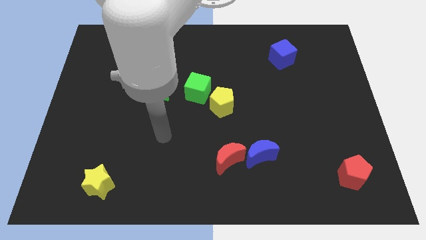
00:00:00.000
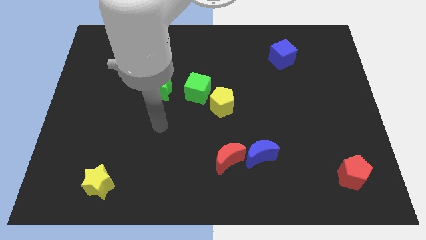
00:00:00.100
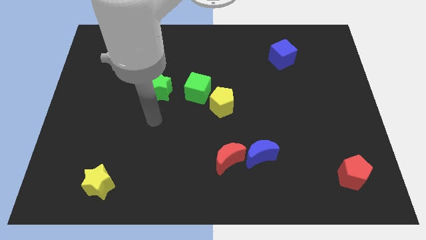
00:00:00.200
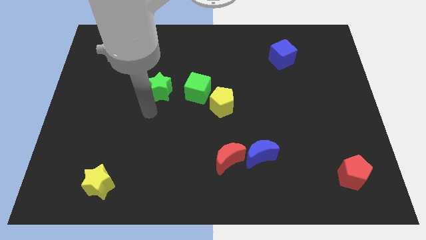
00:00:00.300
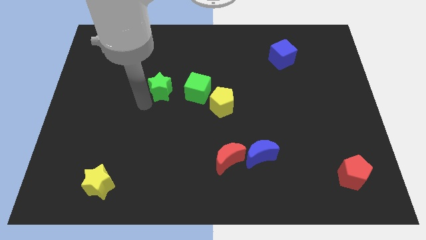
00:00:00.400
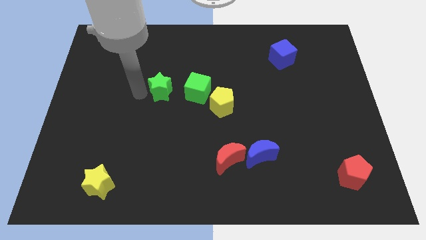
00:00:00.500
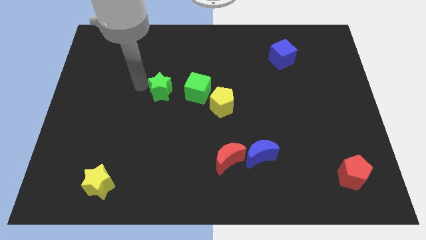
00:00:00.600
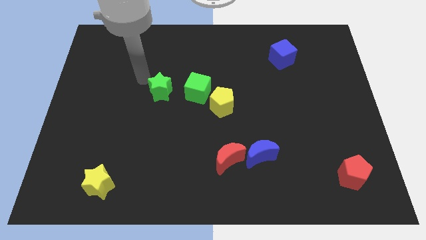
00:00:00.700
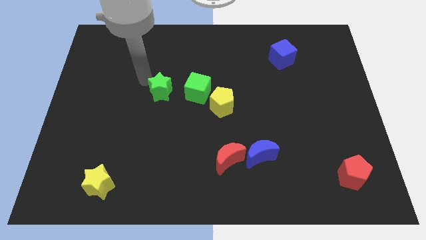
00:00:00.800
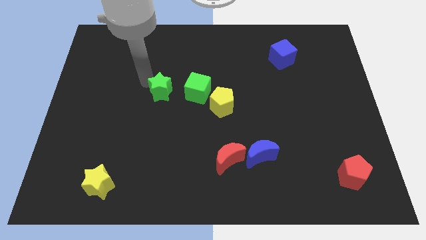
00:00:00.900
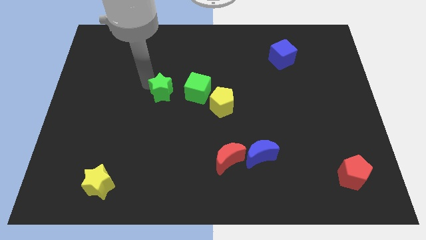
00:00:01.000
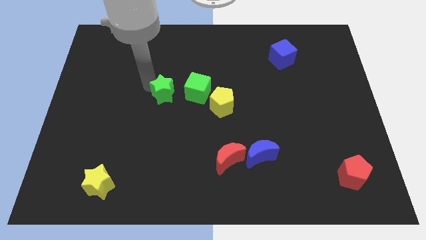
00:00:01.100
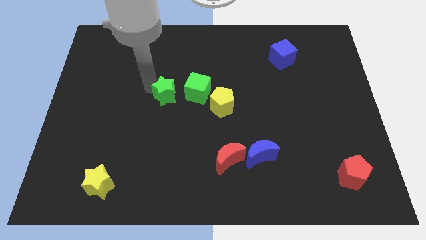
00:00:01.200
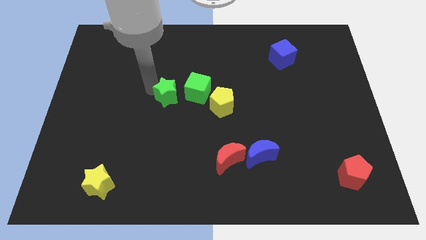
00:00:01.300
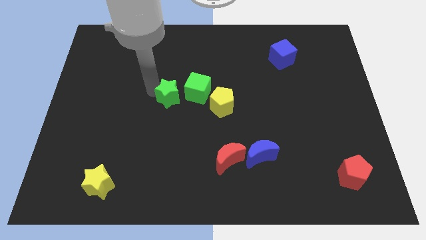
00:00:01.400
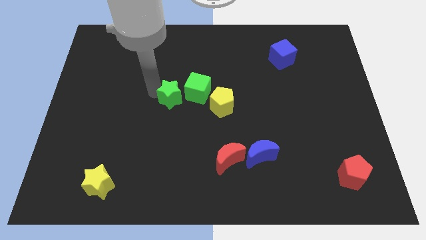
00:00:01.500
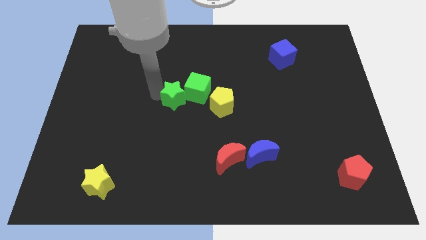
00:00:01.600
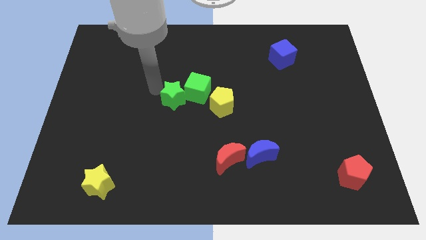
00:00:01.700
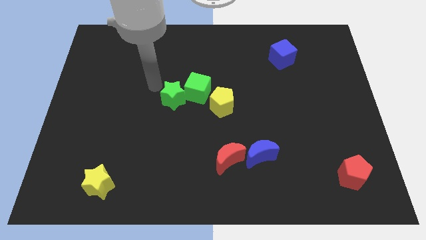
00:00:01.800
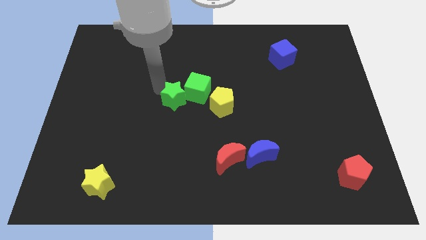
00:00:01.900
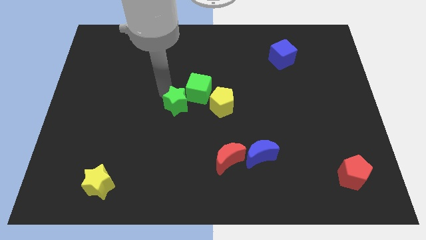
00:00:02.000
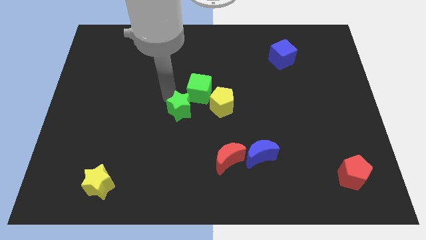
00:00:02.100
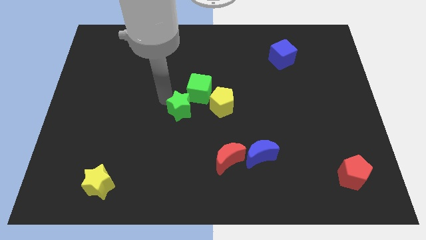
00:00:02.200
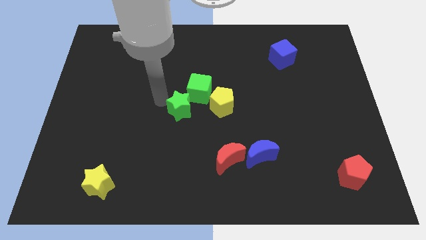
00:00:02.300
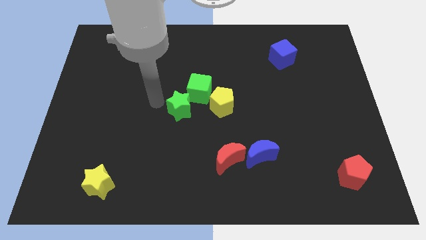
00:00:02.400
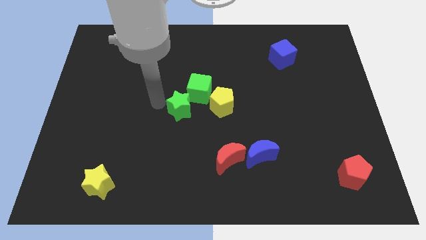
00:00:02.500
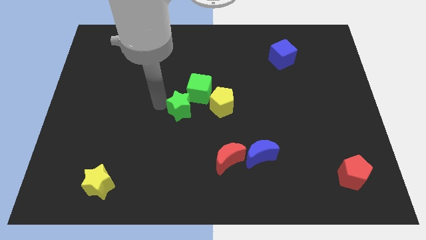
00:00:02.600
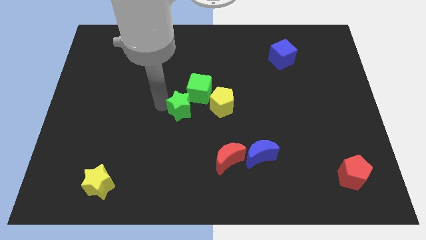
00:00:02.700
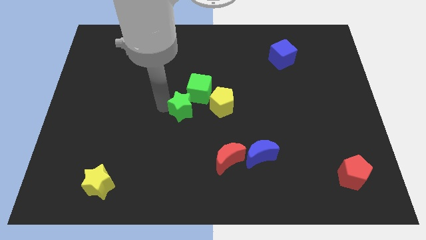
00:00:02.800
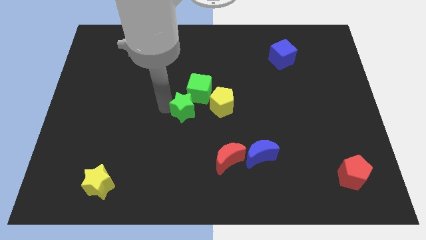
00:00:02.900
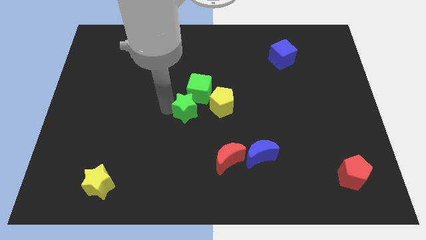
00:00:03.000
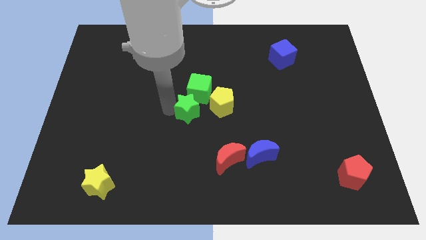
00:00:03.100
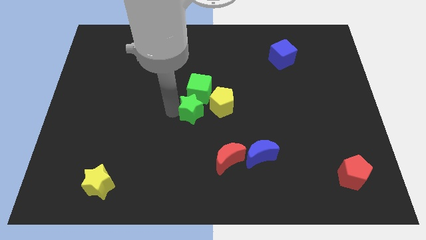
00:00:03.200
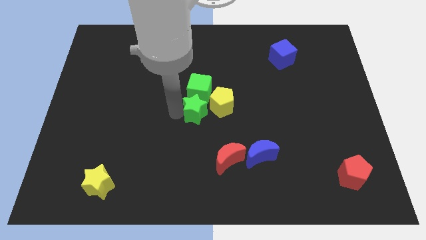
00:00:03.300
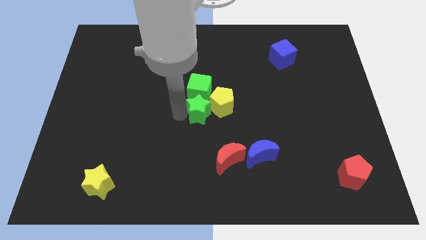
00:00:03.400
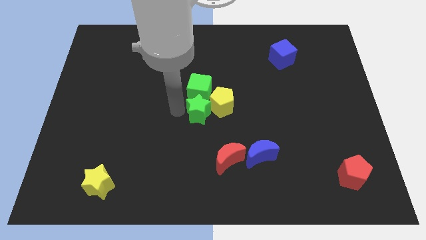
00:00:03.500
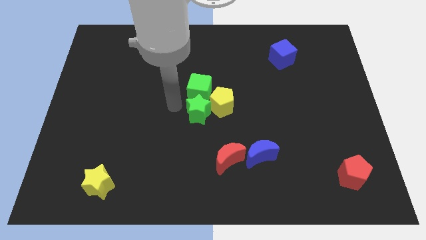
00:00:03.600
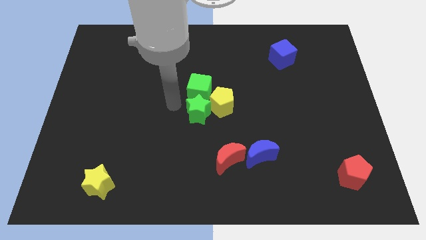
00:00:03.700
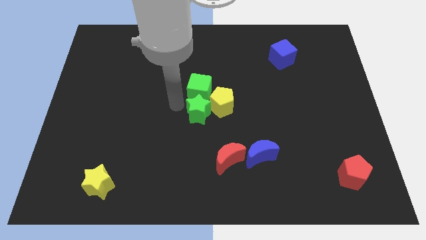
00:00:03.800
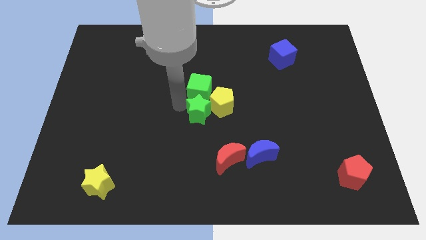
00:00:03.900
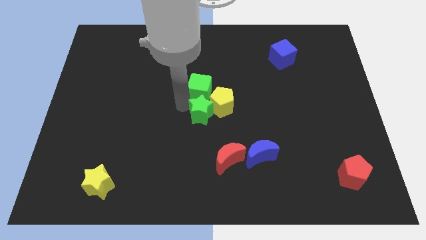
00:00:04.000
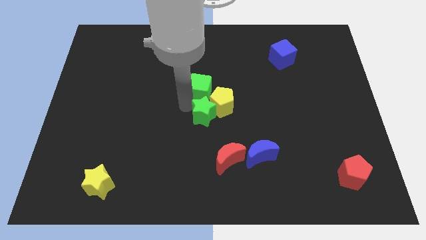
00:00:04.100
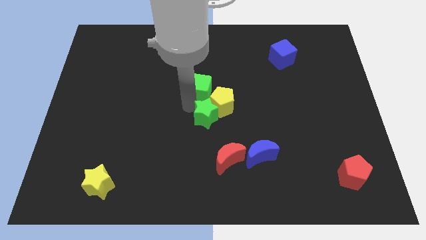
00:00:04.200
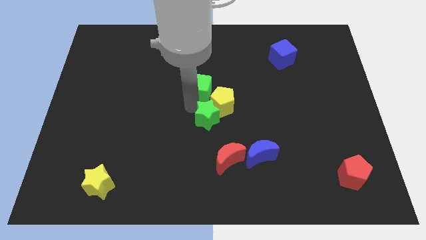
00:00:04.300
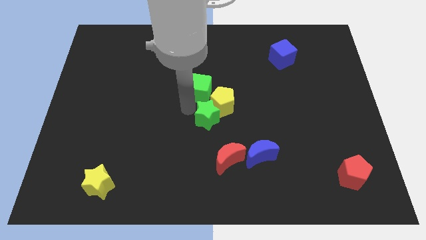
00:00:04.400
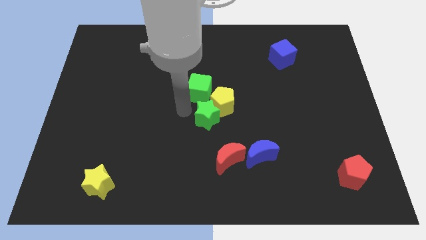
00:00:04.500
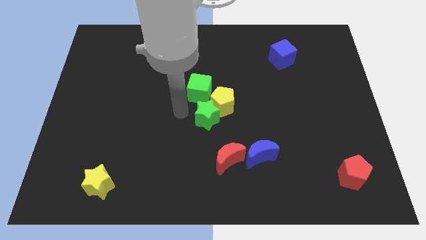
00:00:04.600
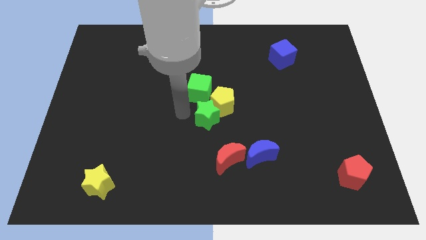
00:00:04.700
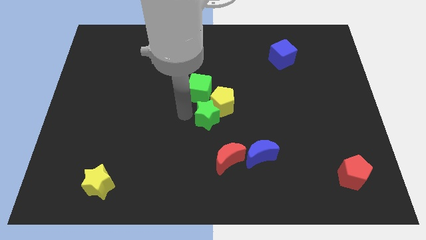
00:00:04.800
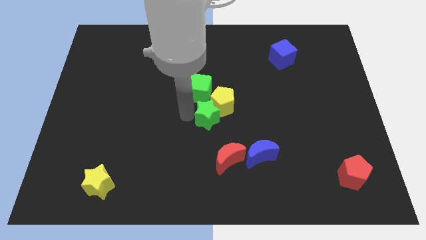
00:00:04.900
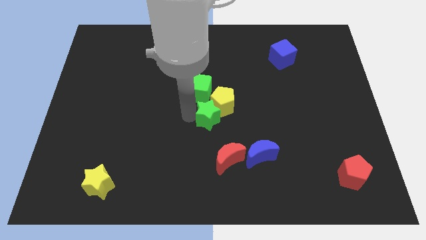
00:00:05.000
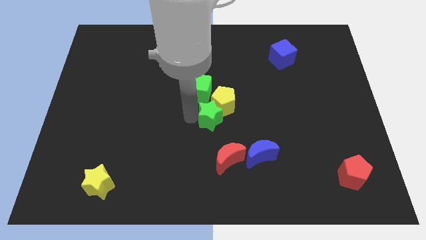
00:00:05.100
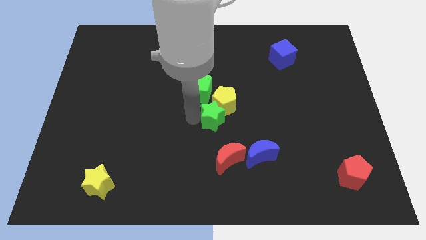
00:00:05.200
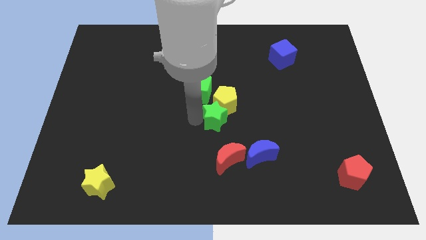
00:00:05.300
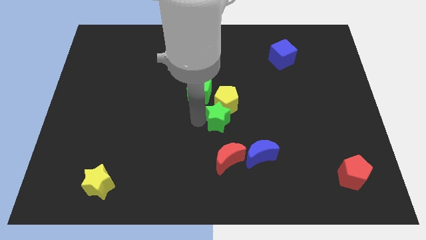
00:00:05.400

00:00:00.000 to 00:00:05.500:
push the green star to the top left side of the blue moon

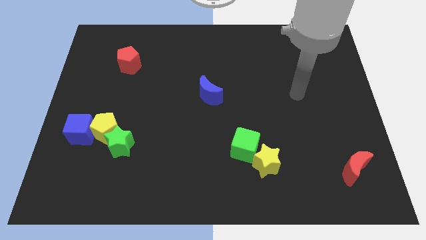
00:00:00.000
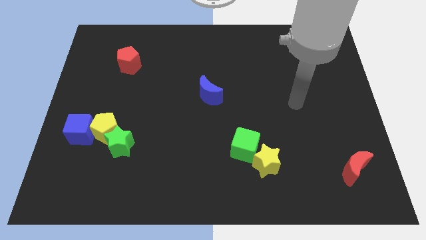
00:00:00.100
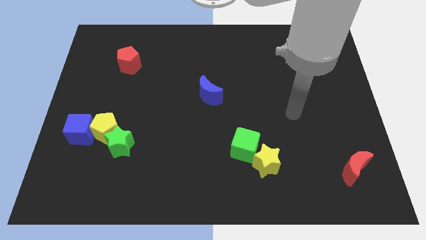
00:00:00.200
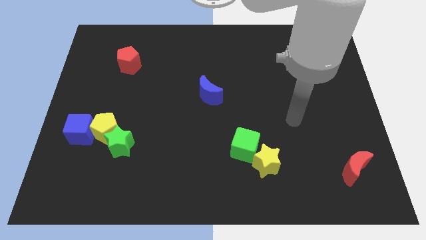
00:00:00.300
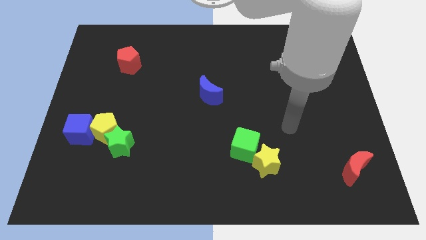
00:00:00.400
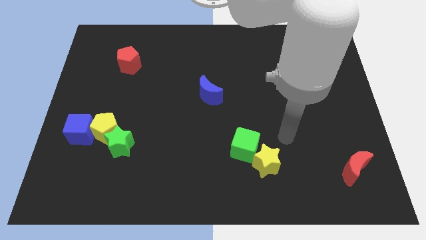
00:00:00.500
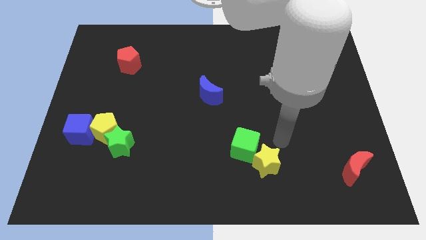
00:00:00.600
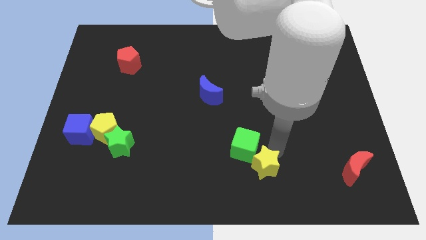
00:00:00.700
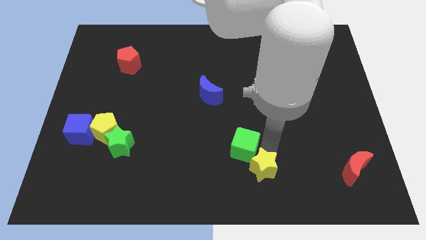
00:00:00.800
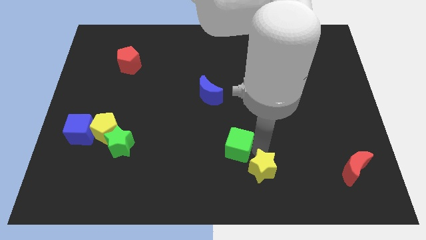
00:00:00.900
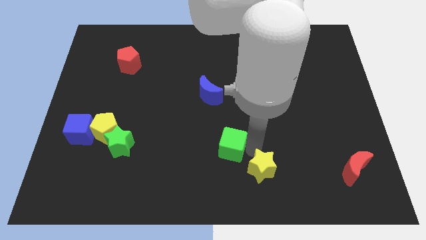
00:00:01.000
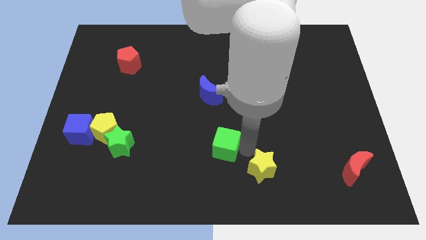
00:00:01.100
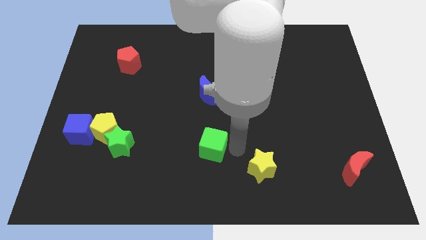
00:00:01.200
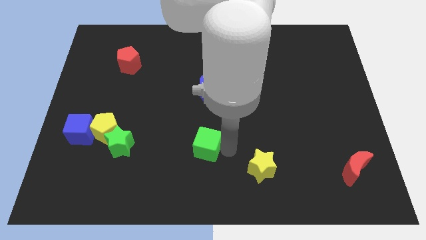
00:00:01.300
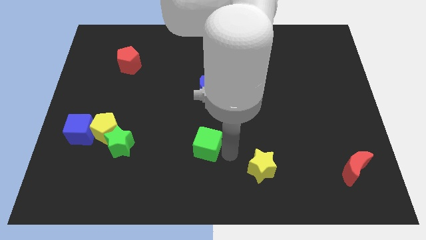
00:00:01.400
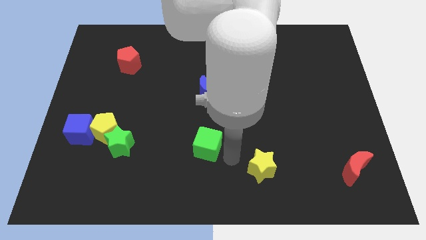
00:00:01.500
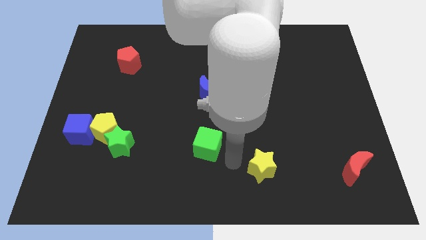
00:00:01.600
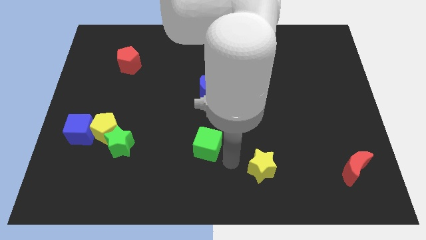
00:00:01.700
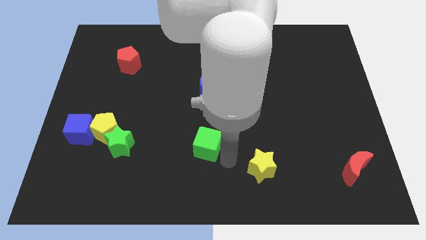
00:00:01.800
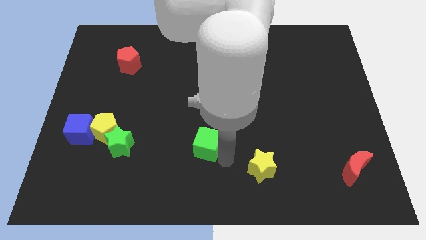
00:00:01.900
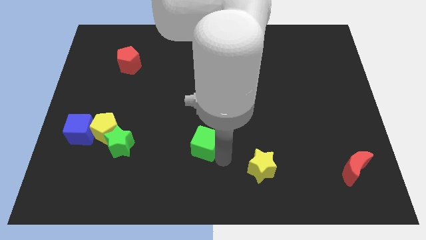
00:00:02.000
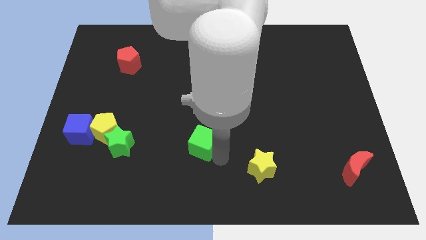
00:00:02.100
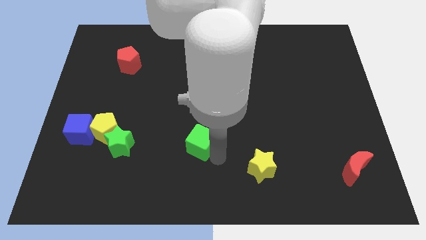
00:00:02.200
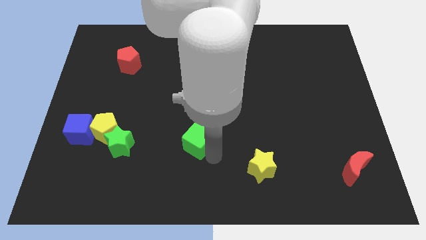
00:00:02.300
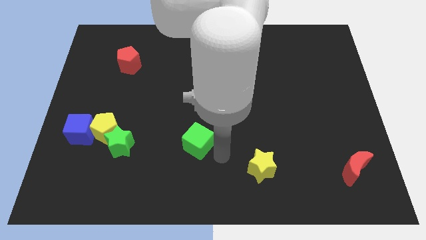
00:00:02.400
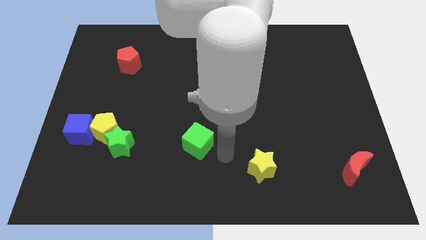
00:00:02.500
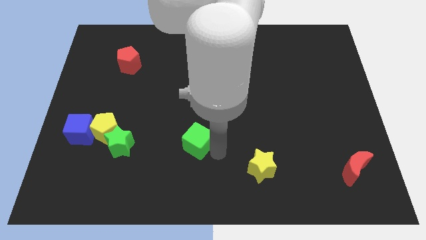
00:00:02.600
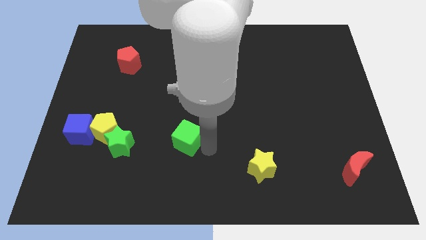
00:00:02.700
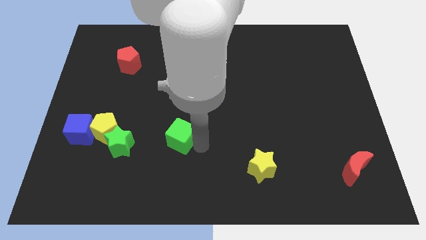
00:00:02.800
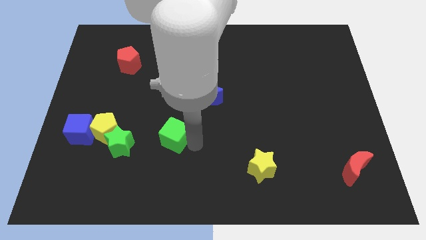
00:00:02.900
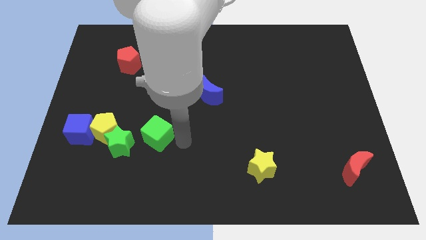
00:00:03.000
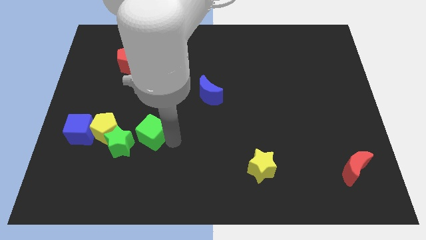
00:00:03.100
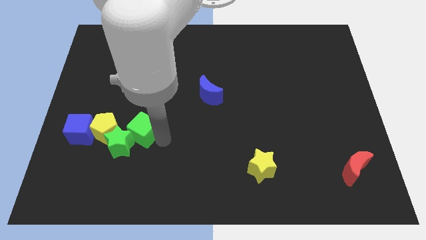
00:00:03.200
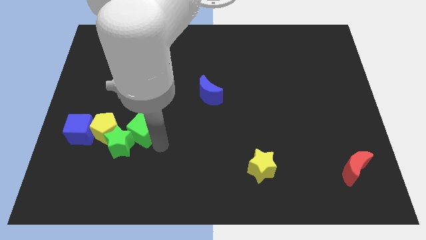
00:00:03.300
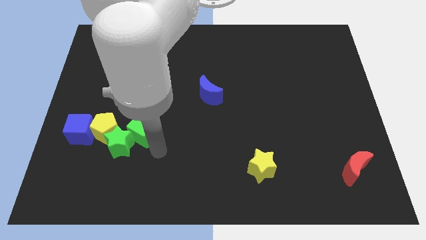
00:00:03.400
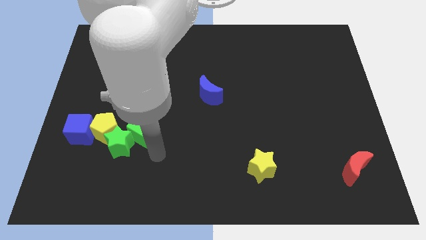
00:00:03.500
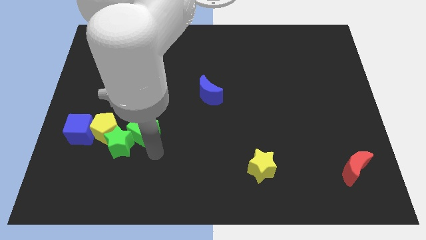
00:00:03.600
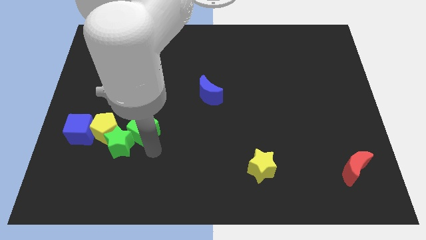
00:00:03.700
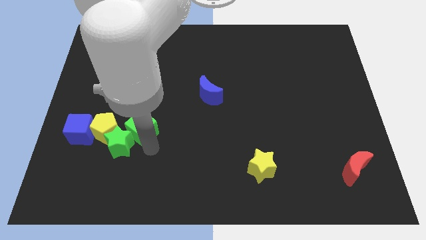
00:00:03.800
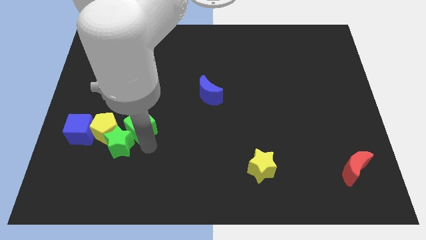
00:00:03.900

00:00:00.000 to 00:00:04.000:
push the green cube diagonally up and to the right of the yellow pentagon
